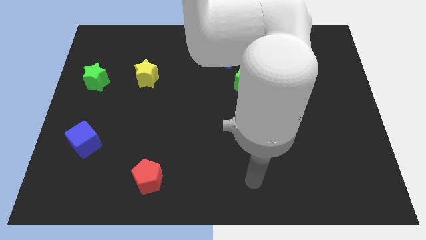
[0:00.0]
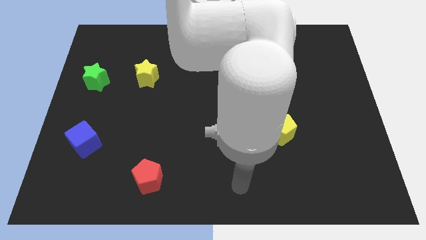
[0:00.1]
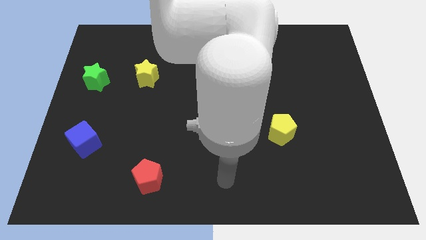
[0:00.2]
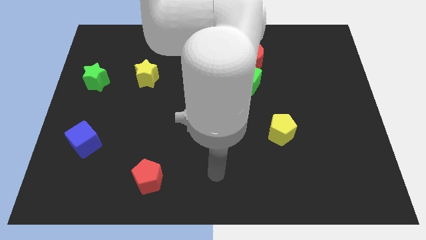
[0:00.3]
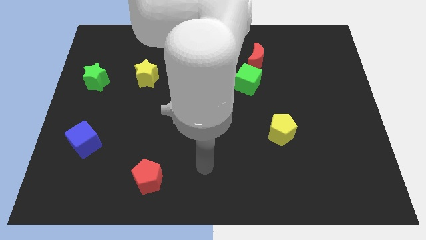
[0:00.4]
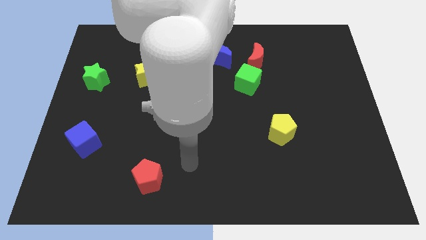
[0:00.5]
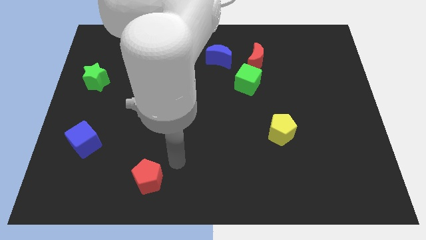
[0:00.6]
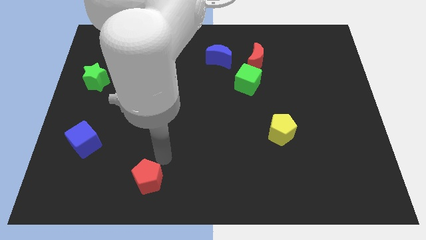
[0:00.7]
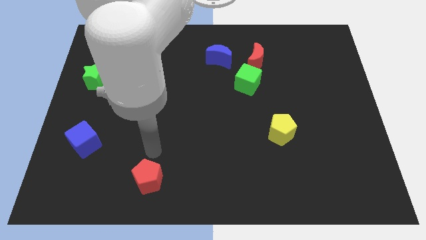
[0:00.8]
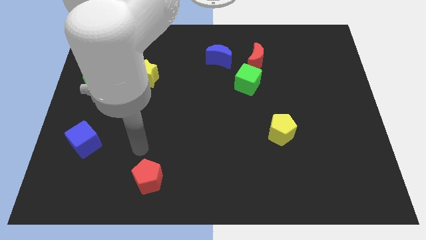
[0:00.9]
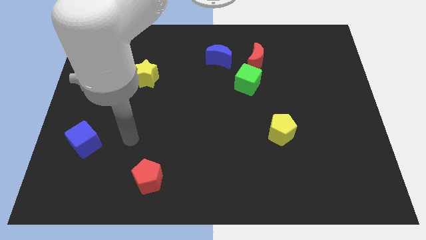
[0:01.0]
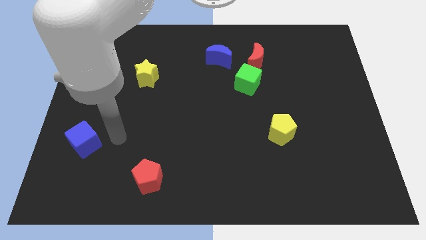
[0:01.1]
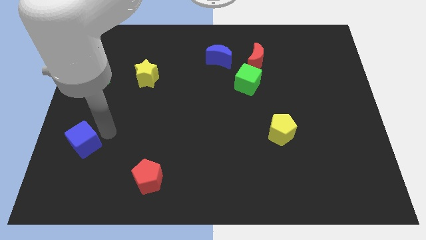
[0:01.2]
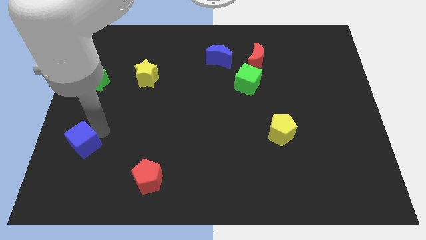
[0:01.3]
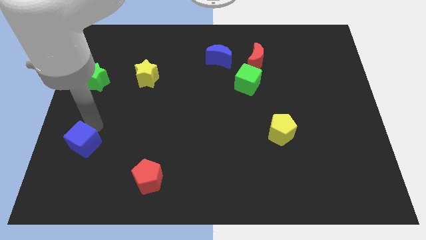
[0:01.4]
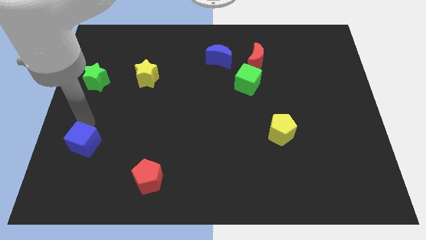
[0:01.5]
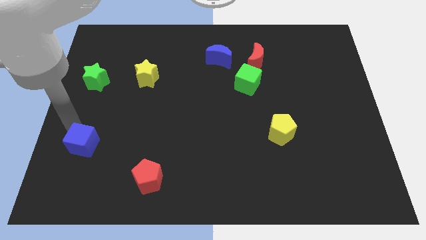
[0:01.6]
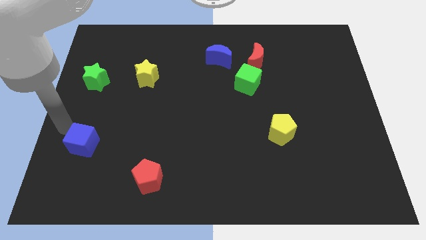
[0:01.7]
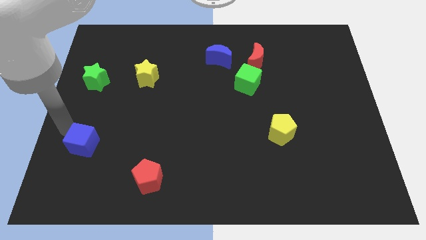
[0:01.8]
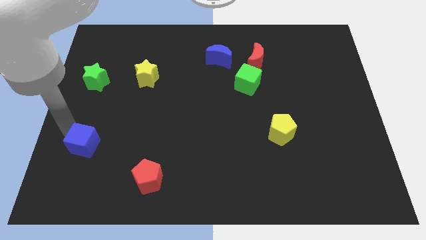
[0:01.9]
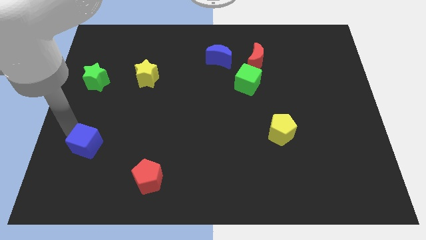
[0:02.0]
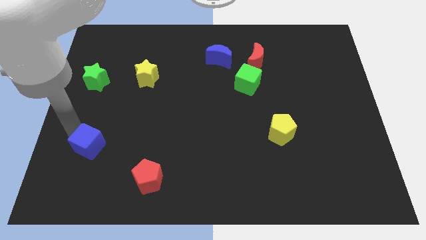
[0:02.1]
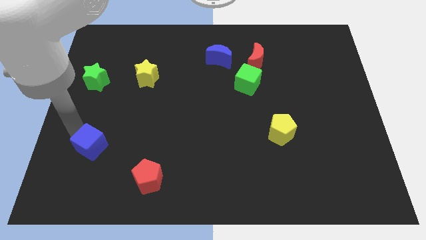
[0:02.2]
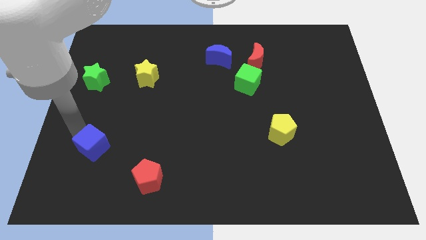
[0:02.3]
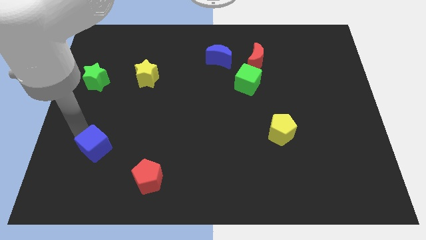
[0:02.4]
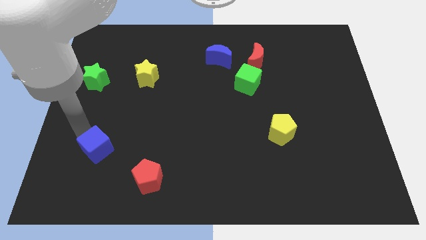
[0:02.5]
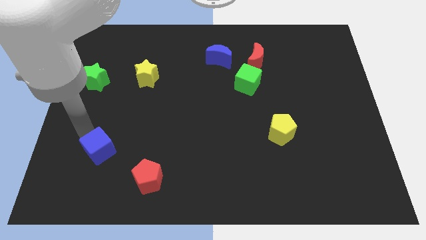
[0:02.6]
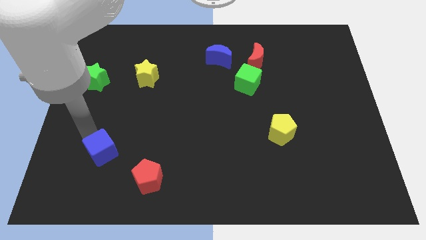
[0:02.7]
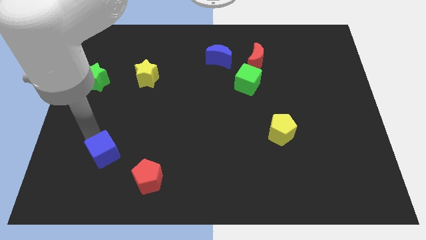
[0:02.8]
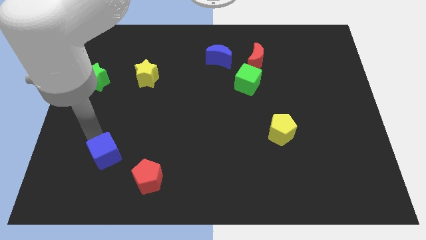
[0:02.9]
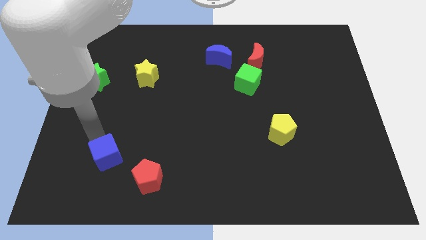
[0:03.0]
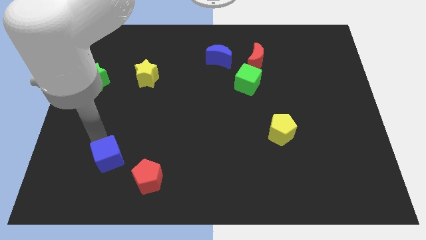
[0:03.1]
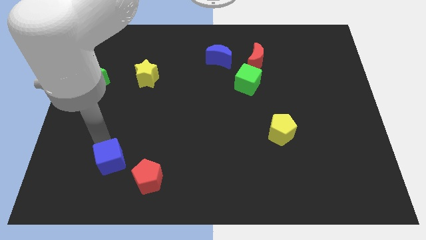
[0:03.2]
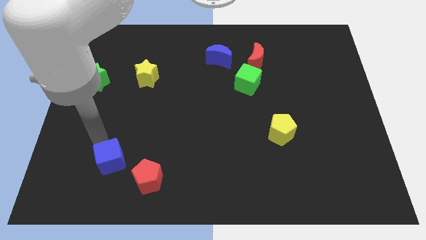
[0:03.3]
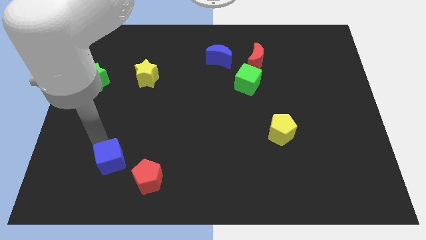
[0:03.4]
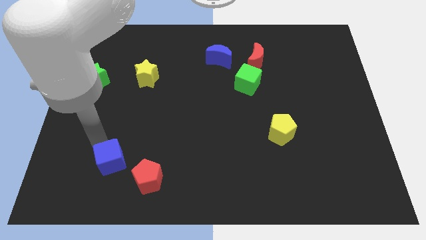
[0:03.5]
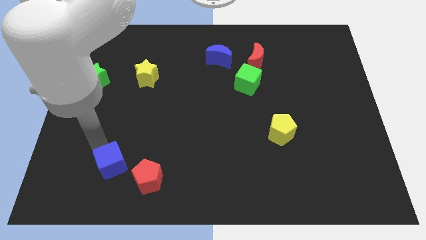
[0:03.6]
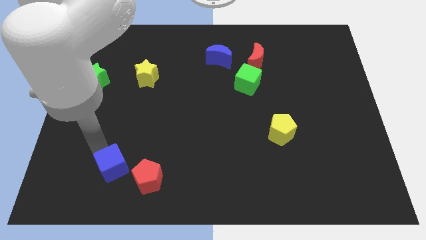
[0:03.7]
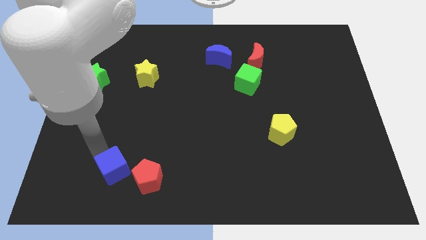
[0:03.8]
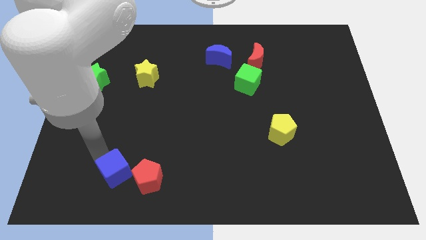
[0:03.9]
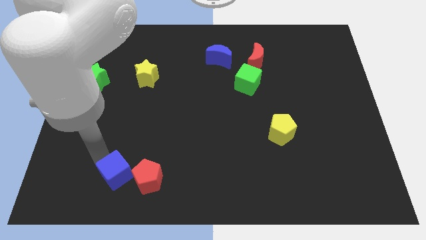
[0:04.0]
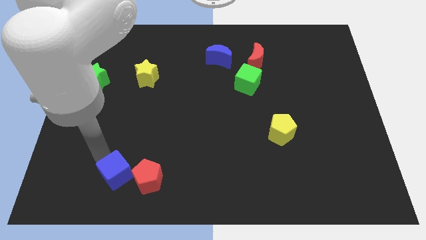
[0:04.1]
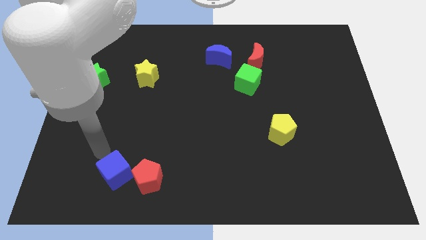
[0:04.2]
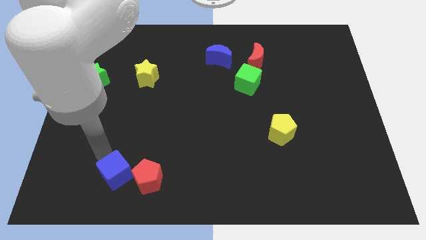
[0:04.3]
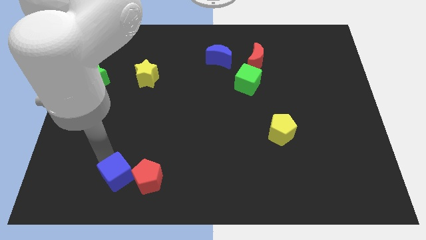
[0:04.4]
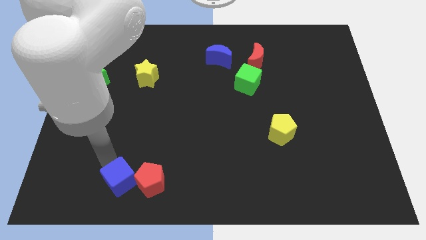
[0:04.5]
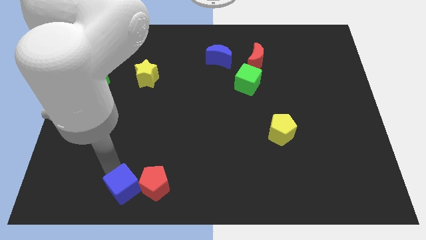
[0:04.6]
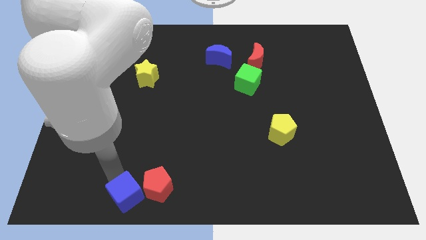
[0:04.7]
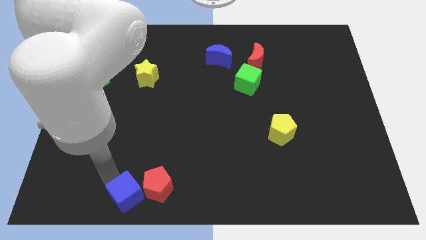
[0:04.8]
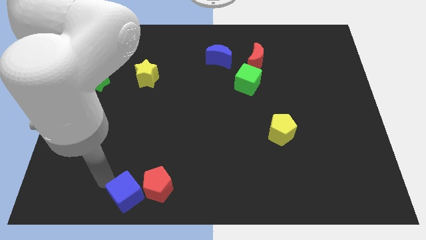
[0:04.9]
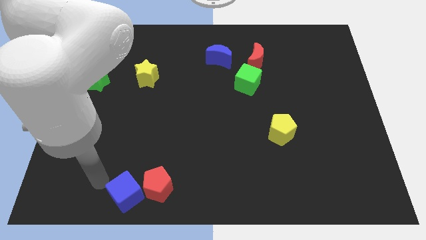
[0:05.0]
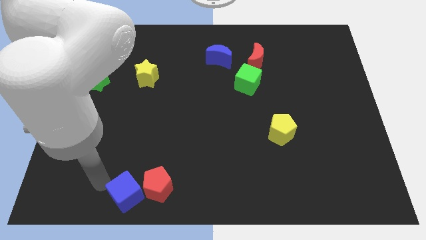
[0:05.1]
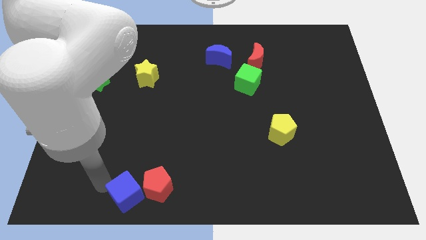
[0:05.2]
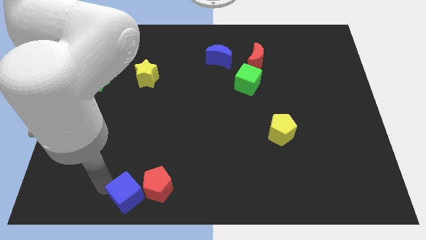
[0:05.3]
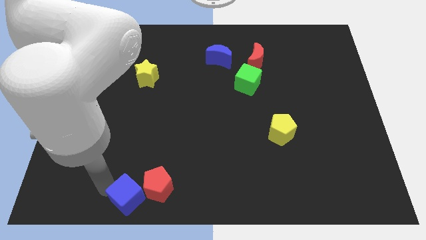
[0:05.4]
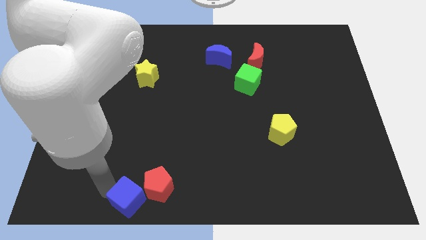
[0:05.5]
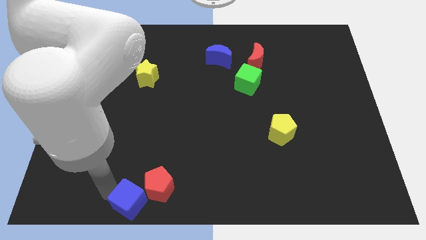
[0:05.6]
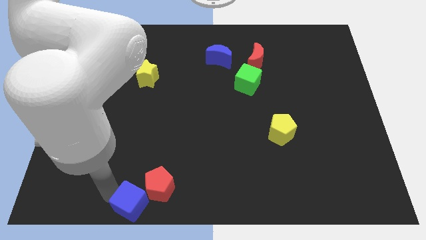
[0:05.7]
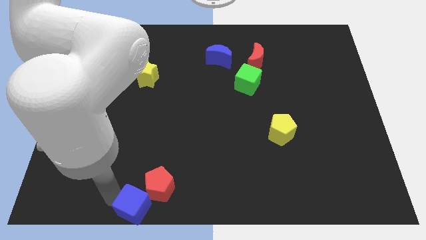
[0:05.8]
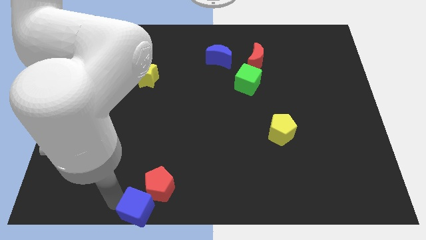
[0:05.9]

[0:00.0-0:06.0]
put the blue cube to the bottom side
